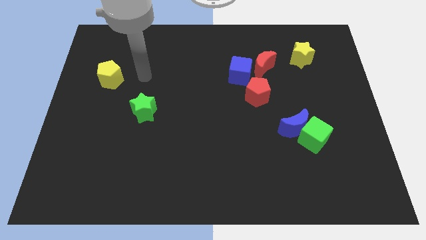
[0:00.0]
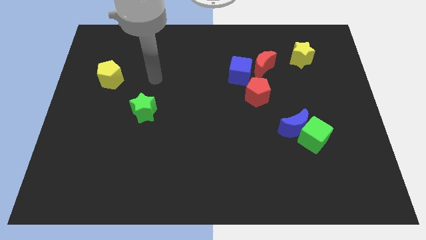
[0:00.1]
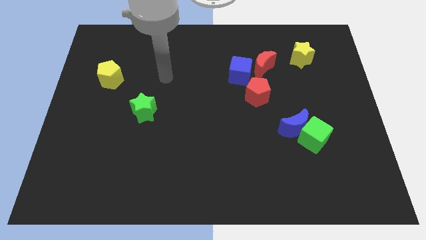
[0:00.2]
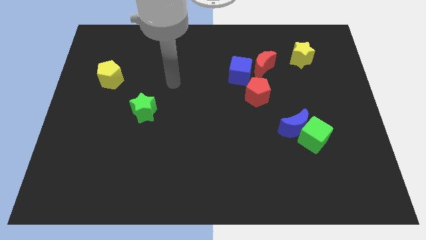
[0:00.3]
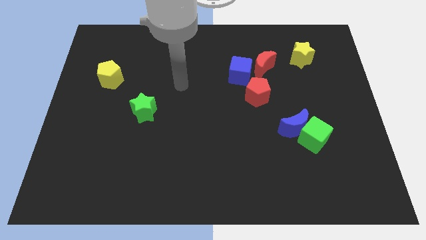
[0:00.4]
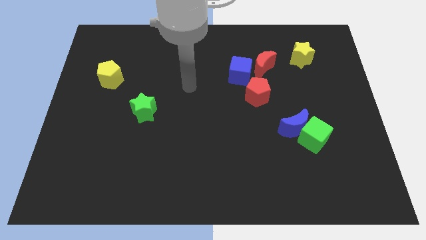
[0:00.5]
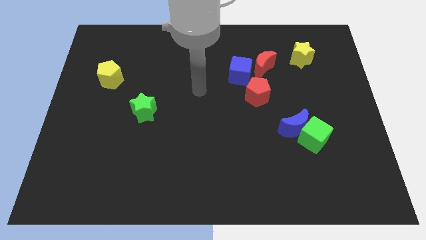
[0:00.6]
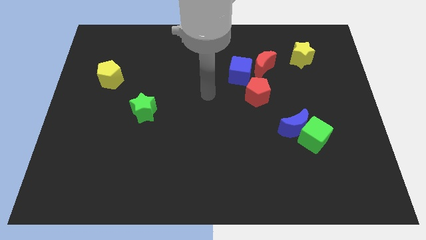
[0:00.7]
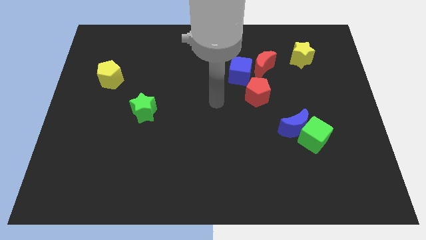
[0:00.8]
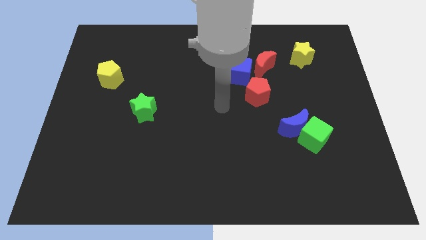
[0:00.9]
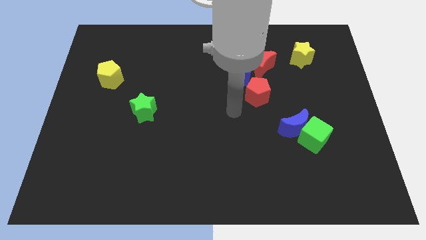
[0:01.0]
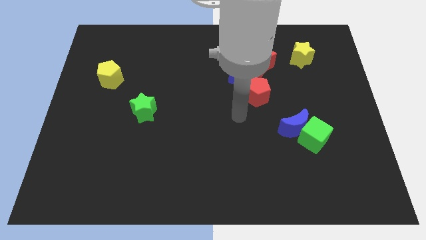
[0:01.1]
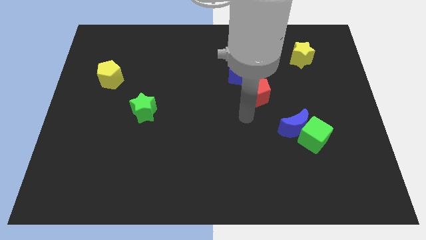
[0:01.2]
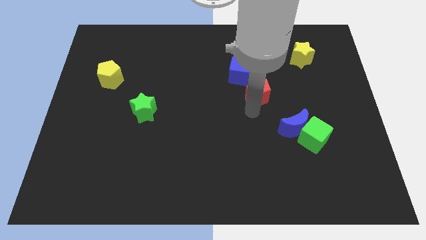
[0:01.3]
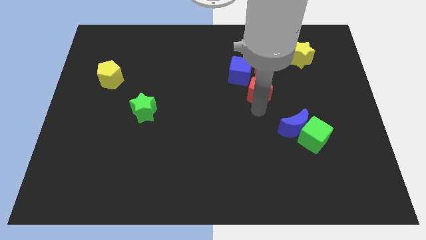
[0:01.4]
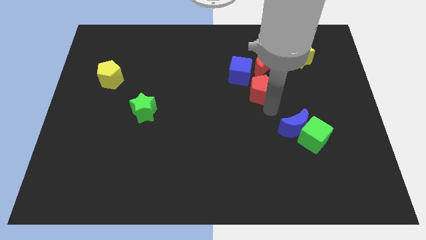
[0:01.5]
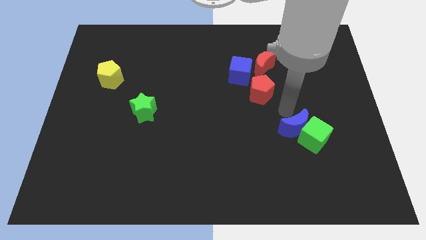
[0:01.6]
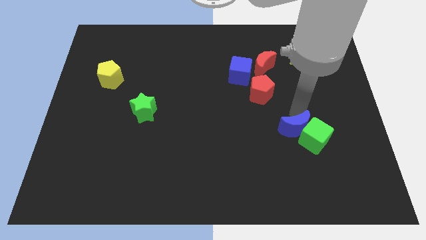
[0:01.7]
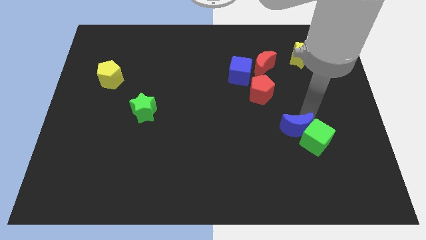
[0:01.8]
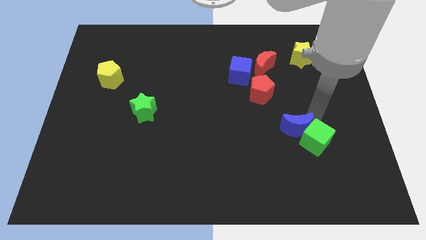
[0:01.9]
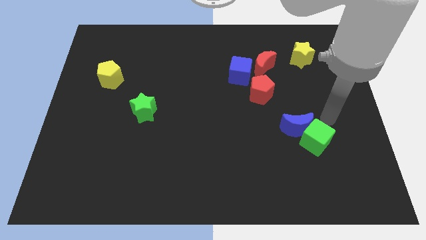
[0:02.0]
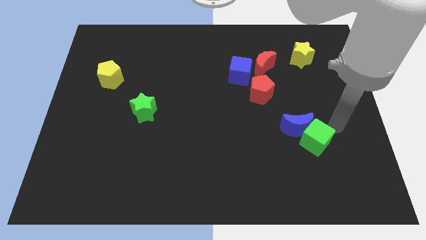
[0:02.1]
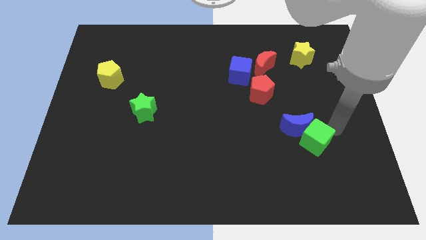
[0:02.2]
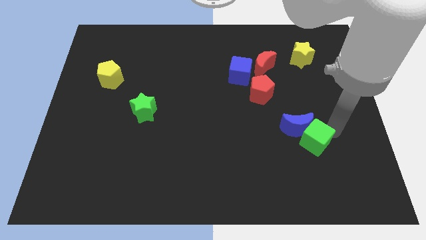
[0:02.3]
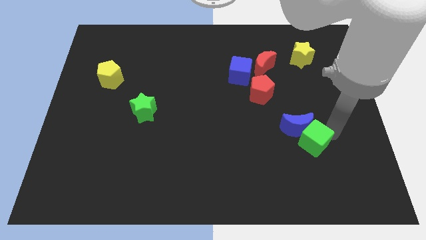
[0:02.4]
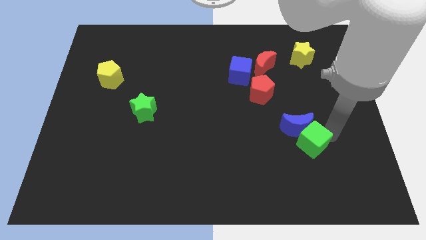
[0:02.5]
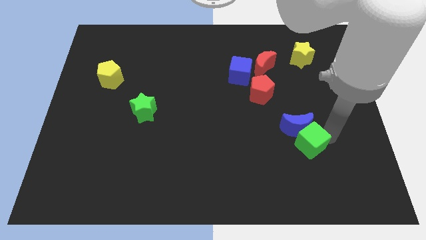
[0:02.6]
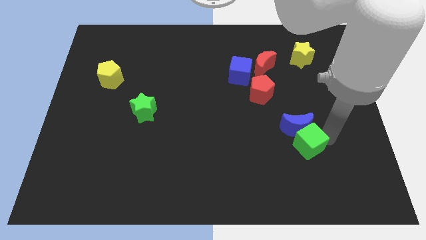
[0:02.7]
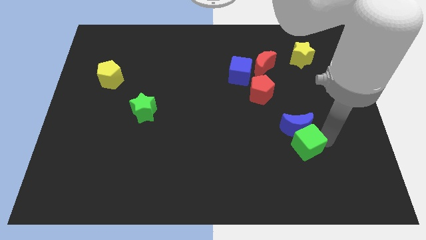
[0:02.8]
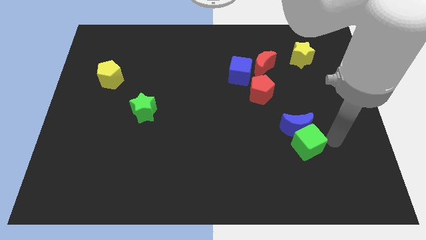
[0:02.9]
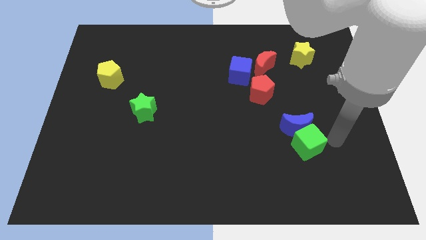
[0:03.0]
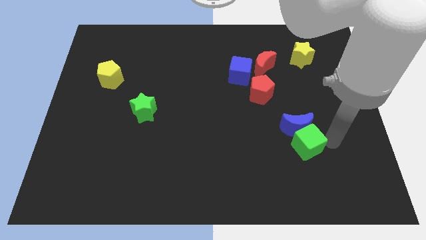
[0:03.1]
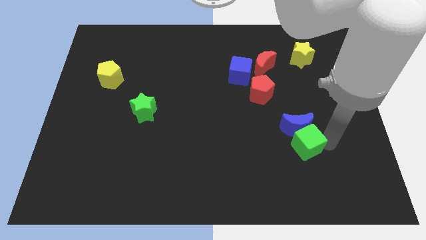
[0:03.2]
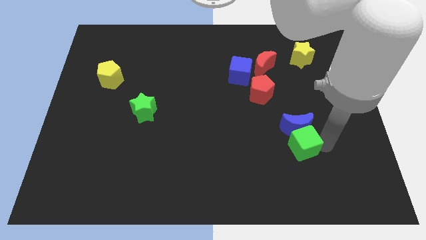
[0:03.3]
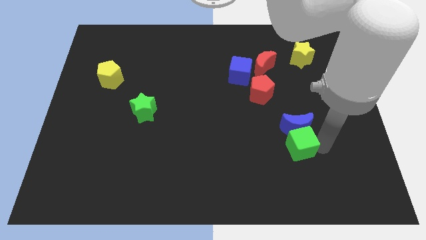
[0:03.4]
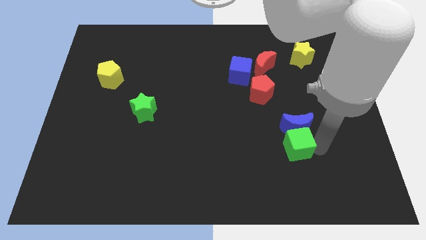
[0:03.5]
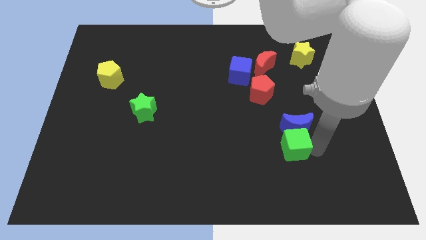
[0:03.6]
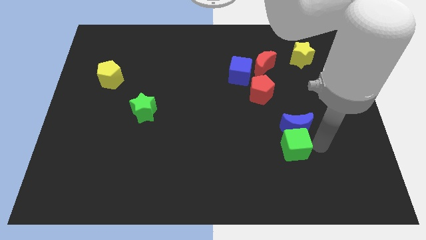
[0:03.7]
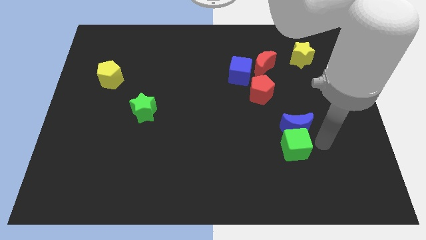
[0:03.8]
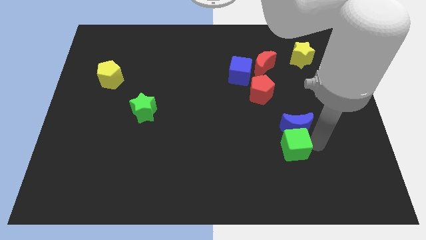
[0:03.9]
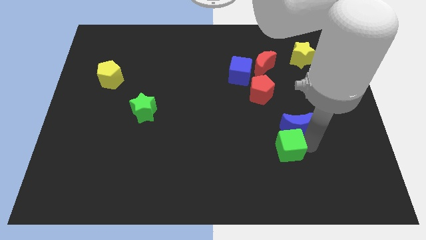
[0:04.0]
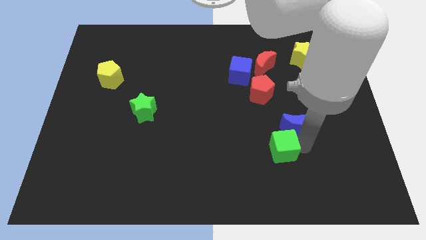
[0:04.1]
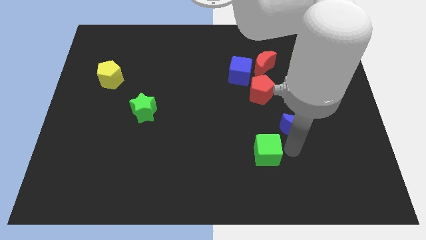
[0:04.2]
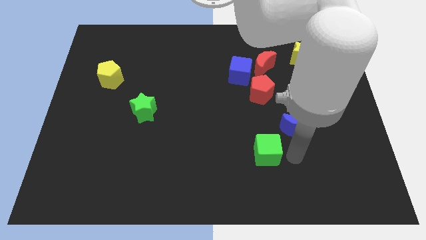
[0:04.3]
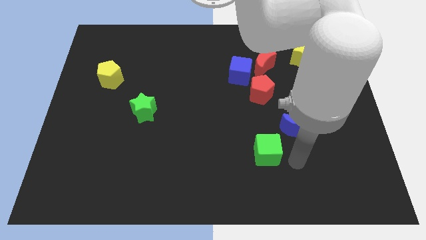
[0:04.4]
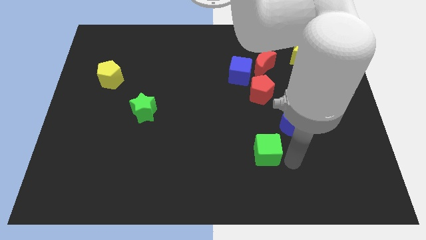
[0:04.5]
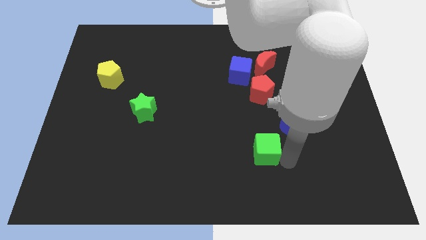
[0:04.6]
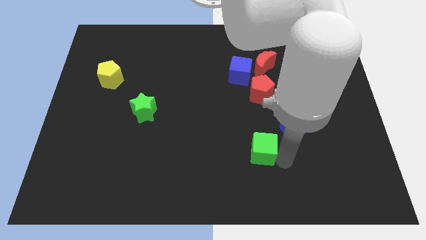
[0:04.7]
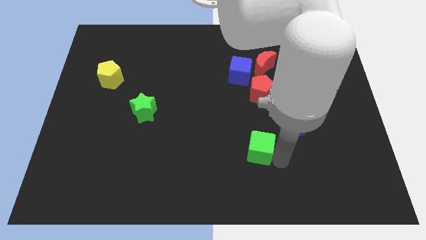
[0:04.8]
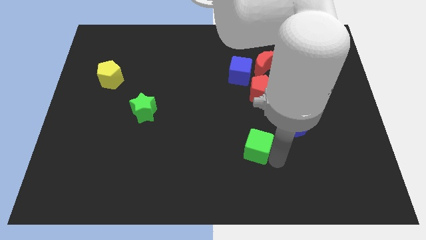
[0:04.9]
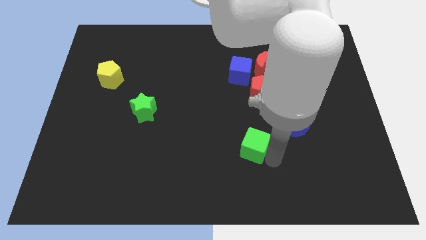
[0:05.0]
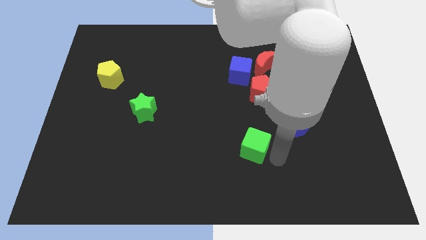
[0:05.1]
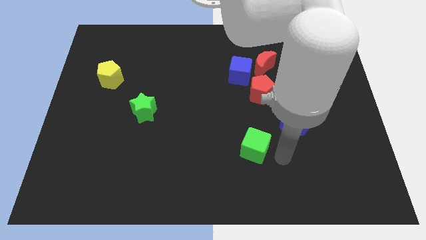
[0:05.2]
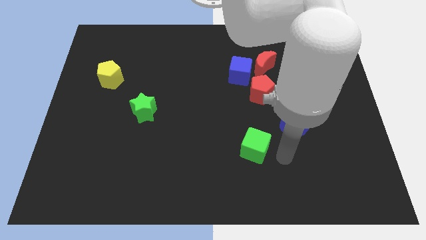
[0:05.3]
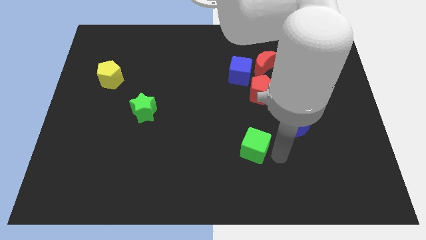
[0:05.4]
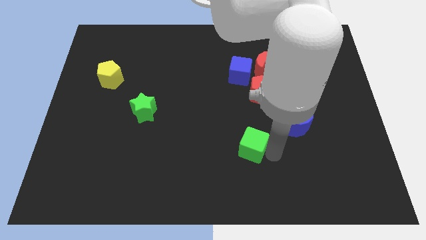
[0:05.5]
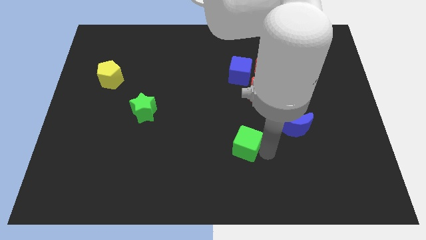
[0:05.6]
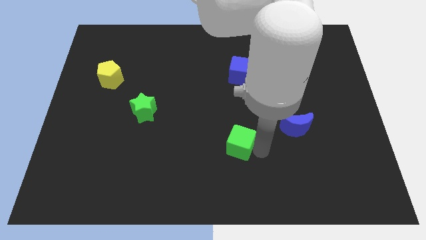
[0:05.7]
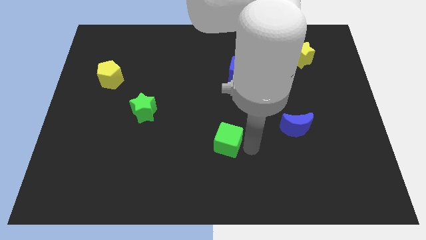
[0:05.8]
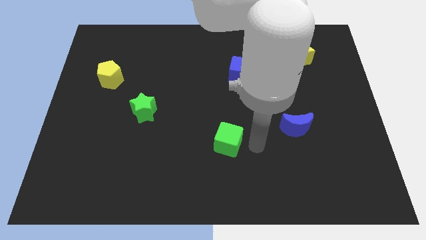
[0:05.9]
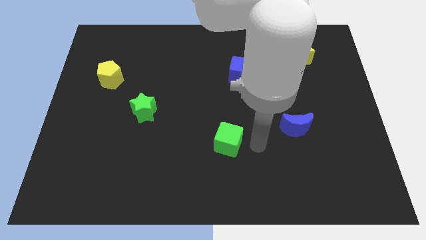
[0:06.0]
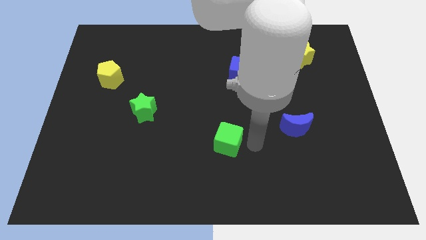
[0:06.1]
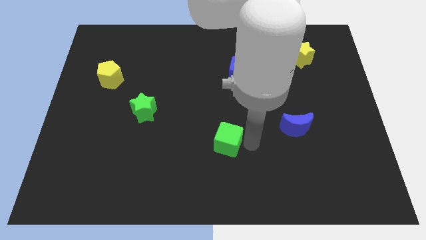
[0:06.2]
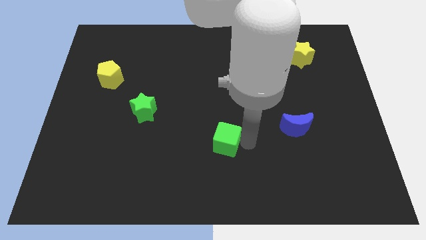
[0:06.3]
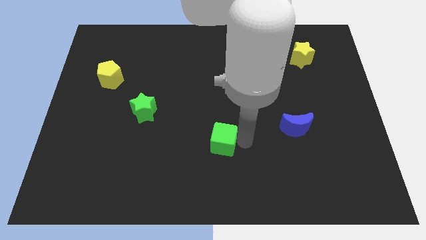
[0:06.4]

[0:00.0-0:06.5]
push the green cube to the left

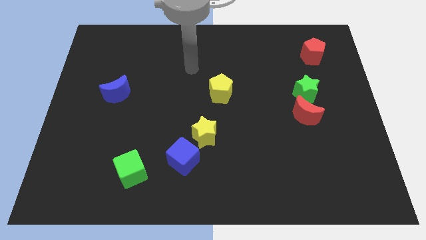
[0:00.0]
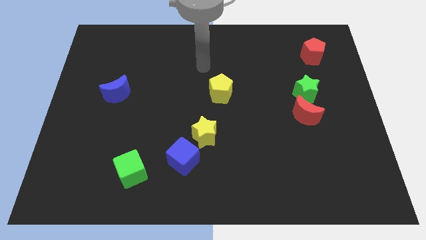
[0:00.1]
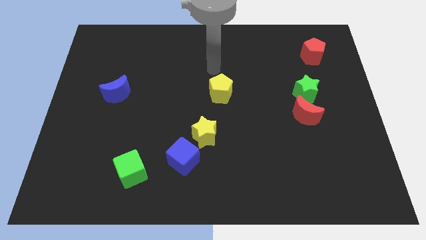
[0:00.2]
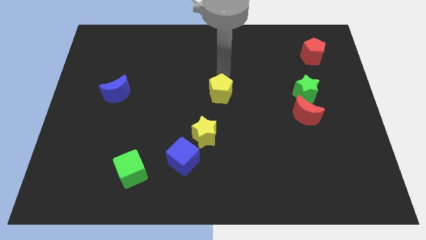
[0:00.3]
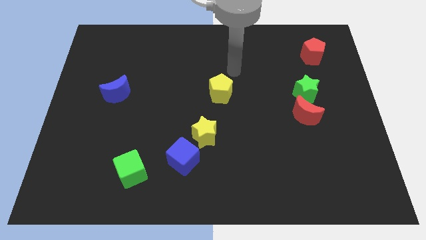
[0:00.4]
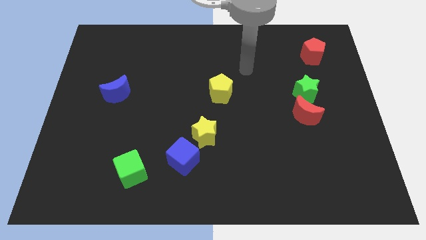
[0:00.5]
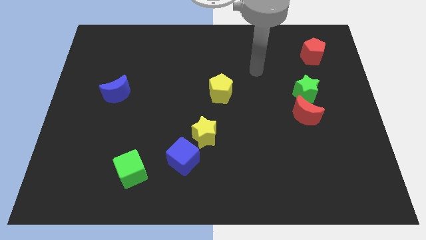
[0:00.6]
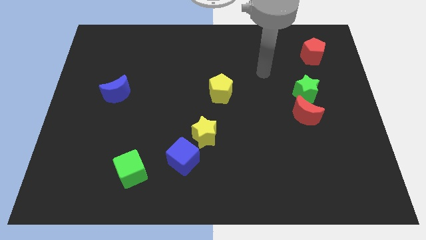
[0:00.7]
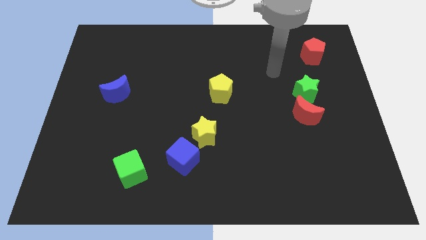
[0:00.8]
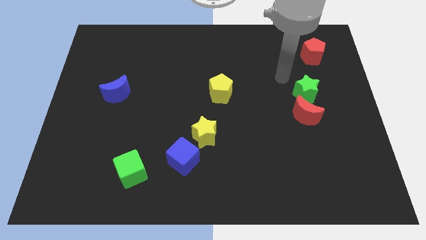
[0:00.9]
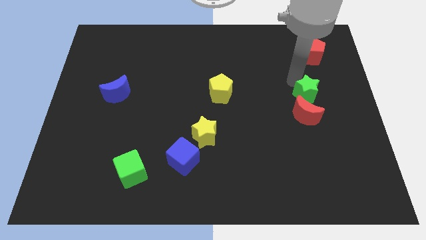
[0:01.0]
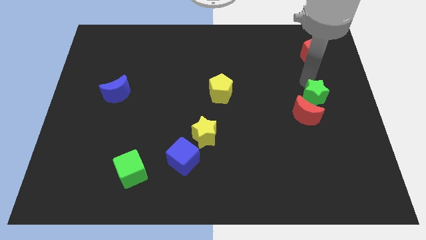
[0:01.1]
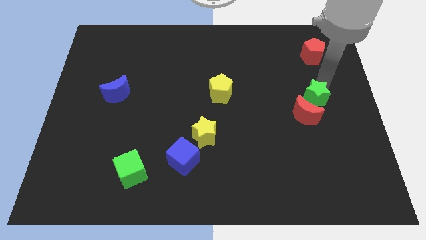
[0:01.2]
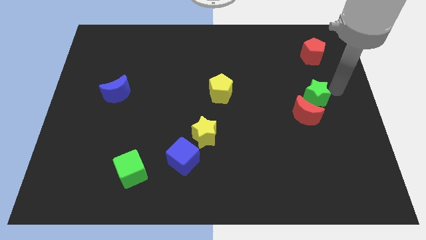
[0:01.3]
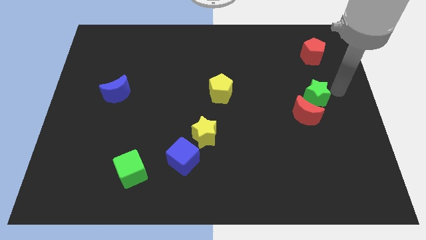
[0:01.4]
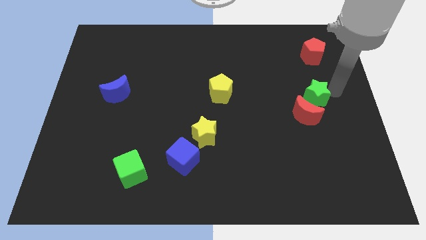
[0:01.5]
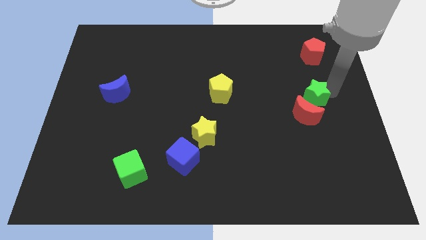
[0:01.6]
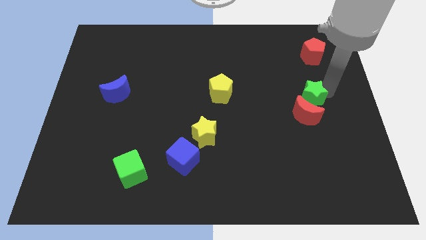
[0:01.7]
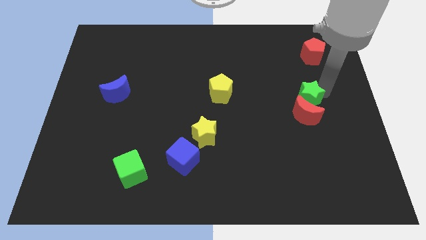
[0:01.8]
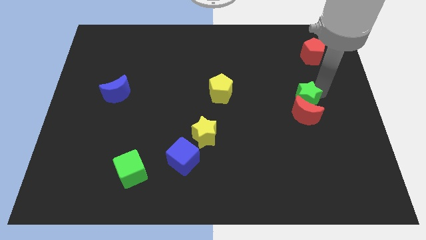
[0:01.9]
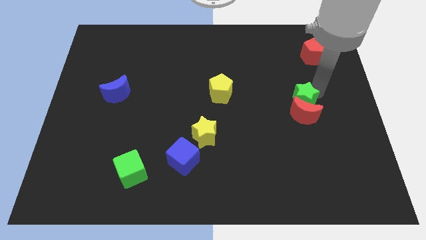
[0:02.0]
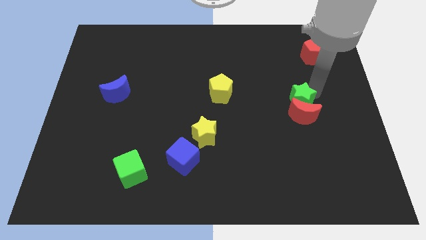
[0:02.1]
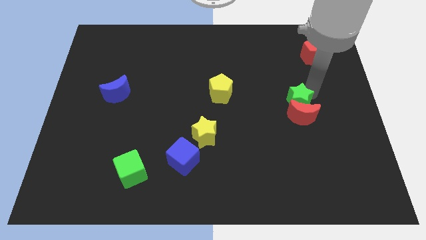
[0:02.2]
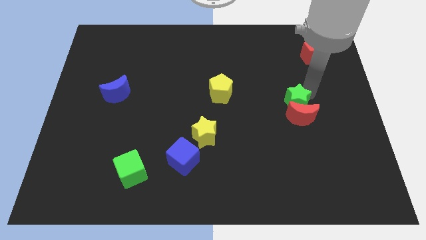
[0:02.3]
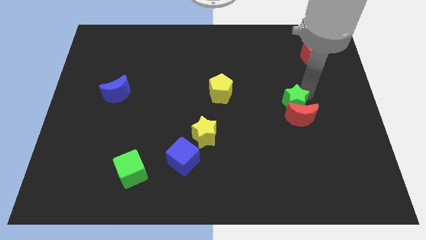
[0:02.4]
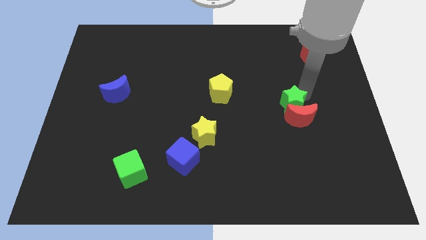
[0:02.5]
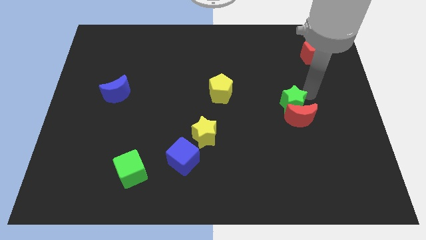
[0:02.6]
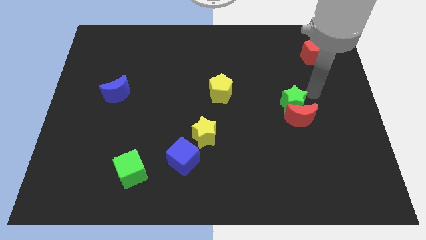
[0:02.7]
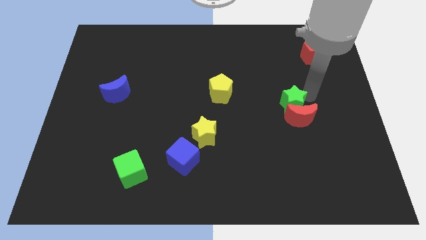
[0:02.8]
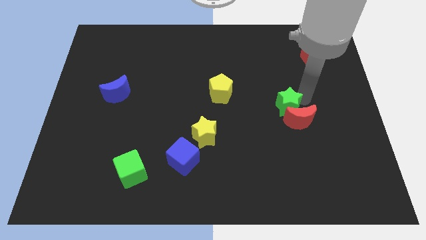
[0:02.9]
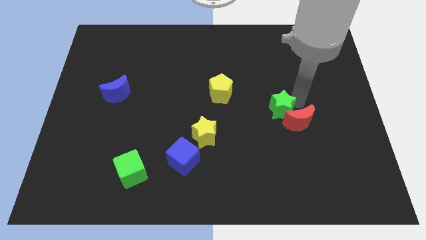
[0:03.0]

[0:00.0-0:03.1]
push the green star a little bit downwards and left
